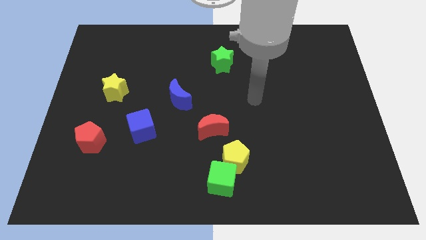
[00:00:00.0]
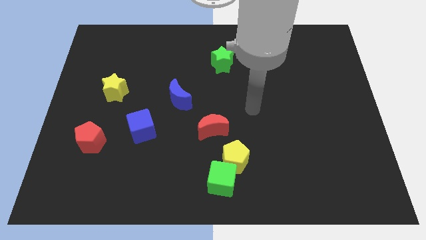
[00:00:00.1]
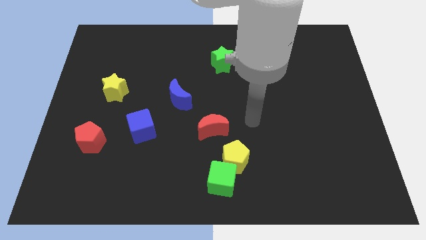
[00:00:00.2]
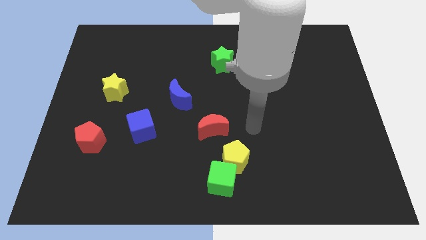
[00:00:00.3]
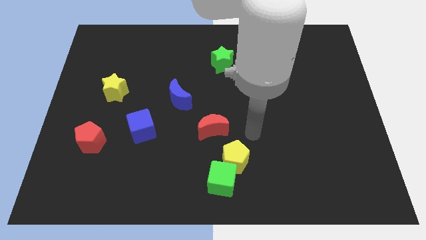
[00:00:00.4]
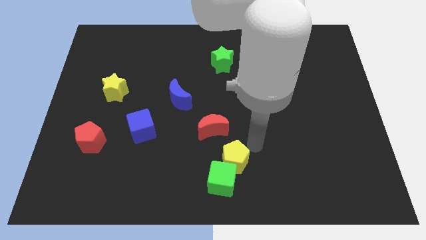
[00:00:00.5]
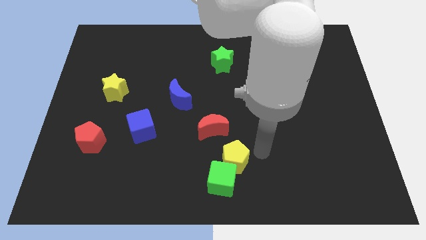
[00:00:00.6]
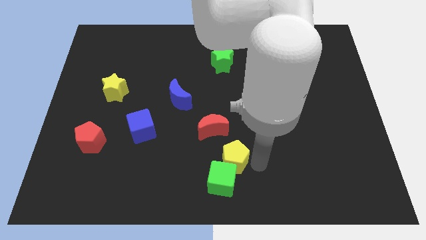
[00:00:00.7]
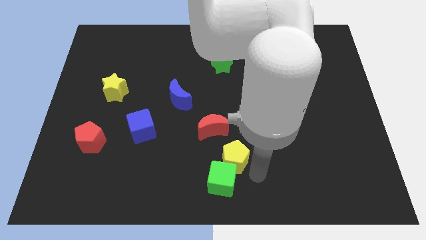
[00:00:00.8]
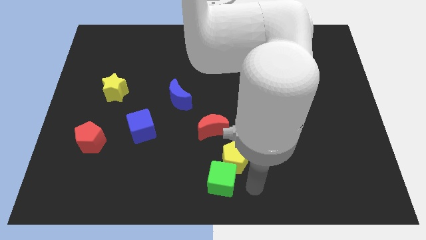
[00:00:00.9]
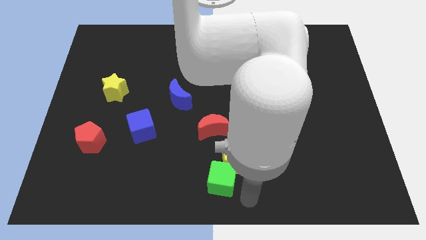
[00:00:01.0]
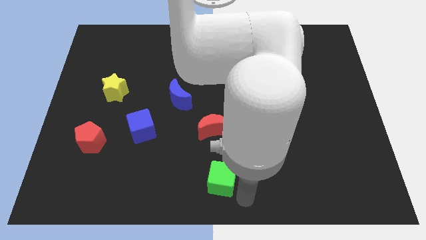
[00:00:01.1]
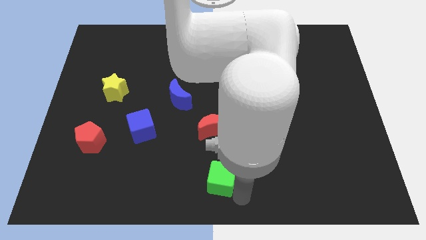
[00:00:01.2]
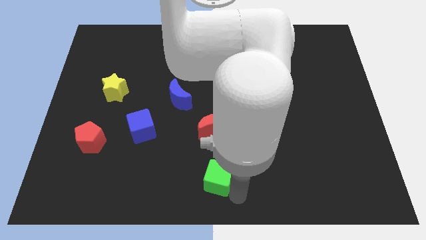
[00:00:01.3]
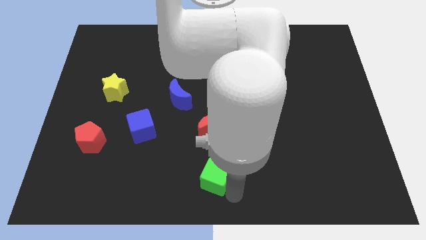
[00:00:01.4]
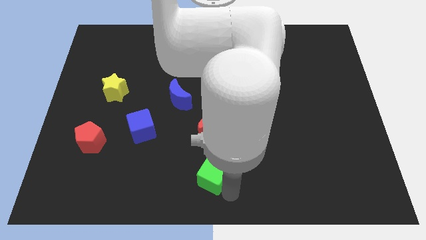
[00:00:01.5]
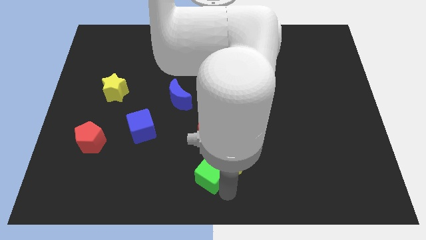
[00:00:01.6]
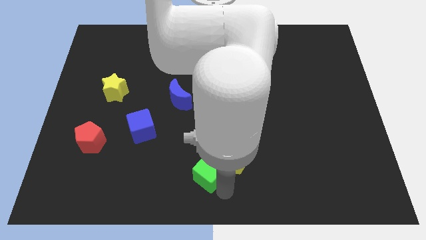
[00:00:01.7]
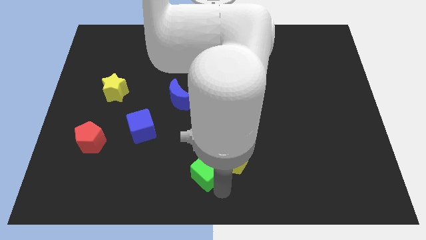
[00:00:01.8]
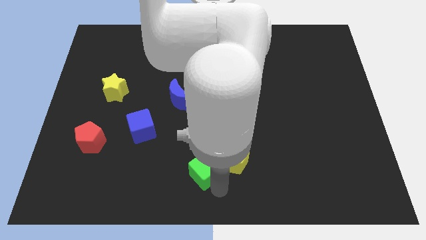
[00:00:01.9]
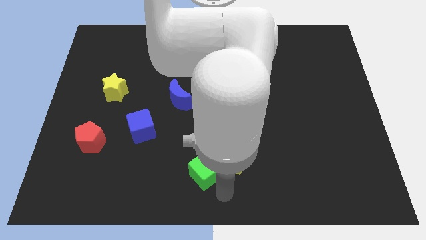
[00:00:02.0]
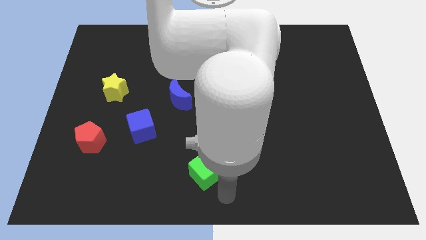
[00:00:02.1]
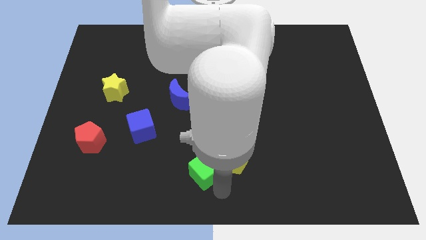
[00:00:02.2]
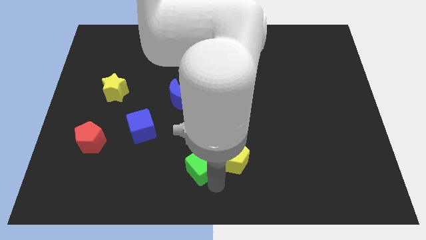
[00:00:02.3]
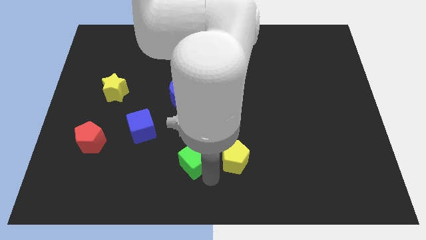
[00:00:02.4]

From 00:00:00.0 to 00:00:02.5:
push the green cube upwards and left slightly

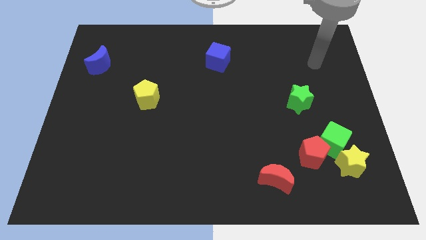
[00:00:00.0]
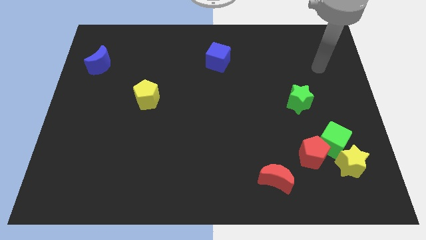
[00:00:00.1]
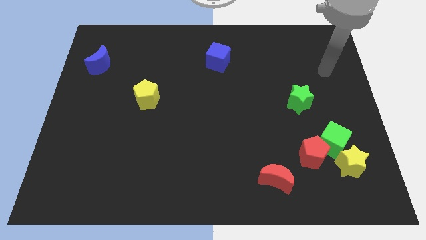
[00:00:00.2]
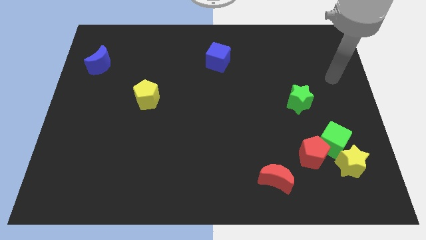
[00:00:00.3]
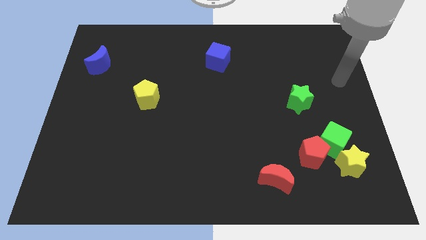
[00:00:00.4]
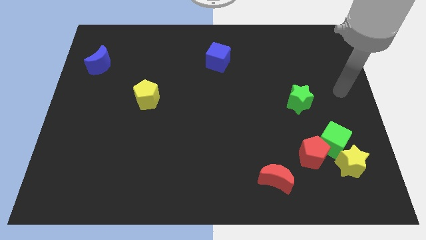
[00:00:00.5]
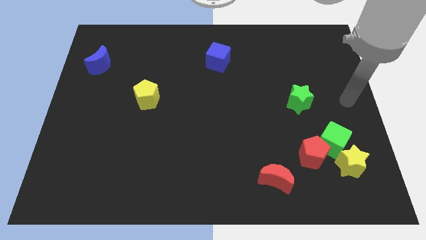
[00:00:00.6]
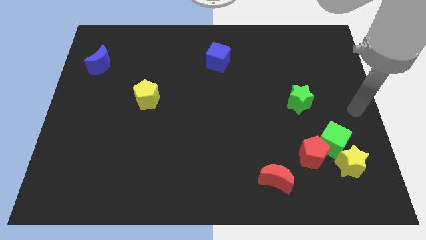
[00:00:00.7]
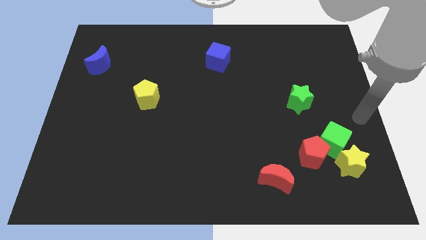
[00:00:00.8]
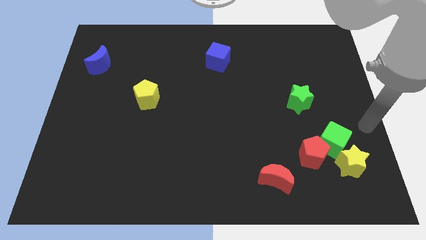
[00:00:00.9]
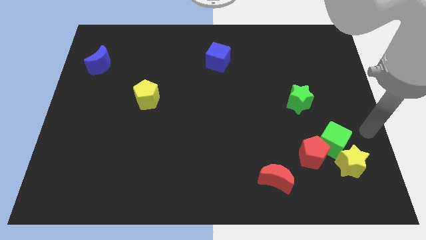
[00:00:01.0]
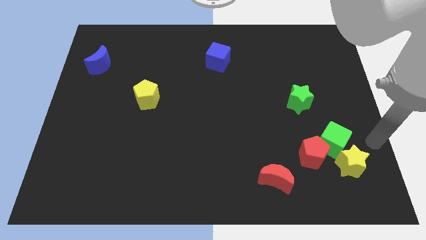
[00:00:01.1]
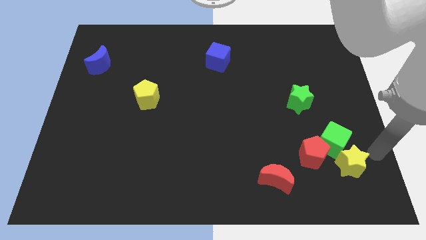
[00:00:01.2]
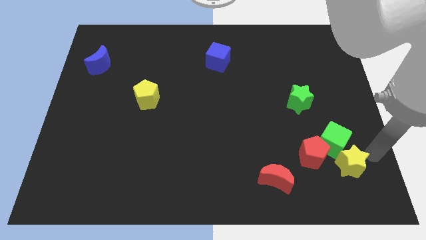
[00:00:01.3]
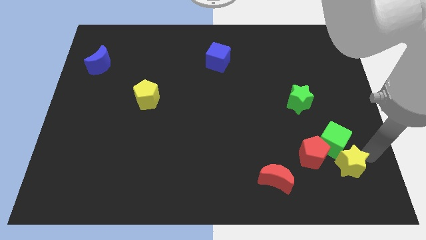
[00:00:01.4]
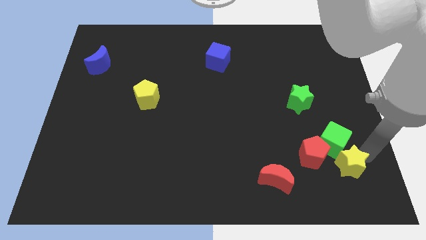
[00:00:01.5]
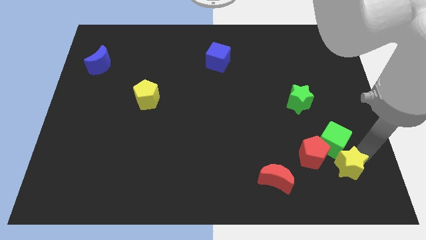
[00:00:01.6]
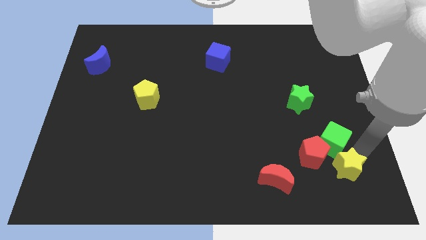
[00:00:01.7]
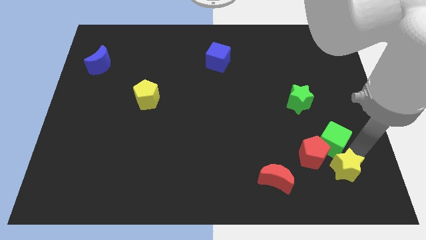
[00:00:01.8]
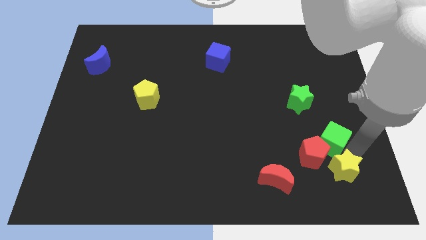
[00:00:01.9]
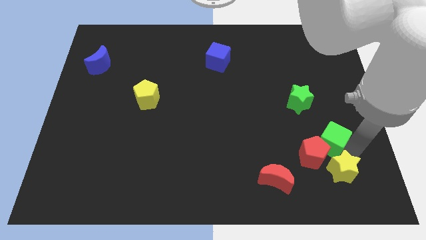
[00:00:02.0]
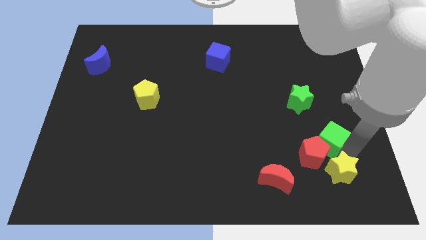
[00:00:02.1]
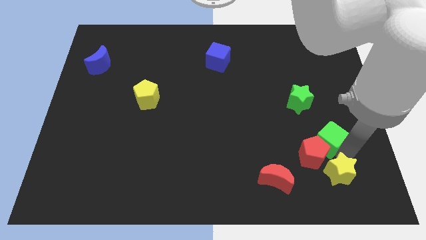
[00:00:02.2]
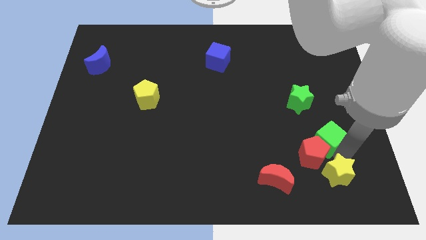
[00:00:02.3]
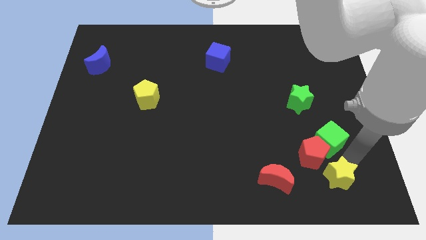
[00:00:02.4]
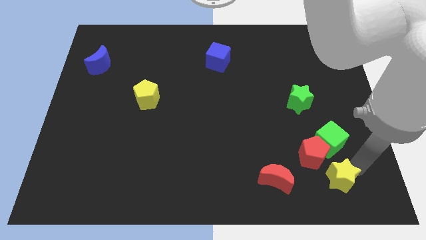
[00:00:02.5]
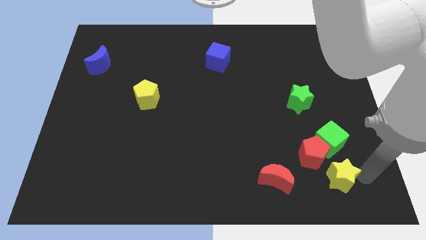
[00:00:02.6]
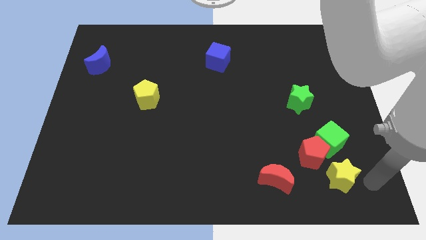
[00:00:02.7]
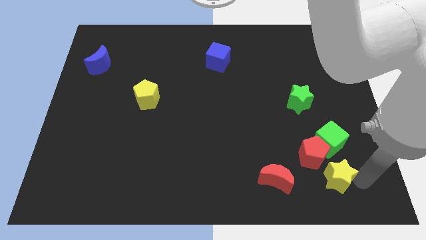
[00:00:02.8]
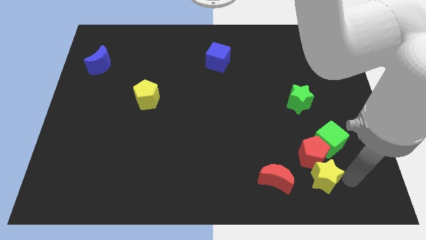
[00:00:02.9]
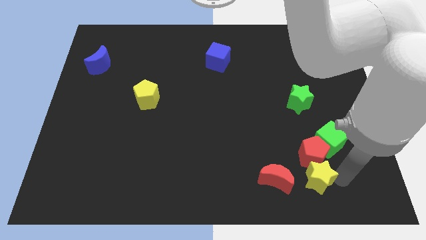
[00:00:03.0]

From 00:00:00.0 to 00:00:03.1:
push the yellow star left somewhat

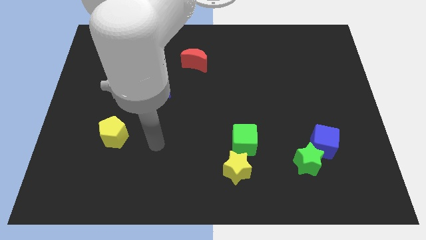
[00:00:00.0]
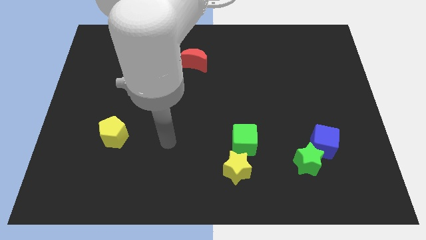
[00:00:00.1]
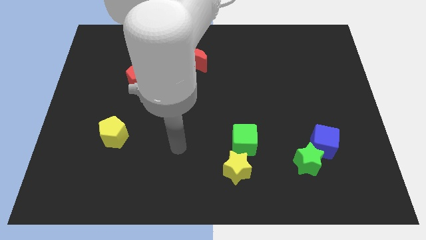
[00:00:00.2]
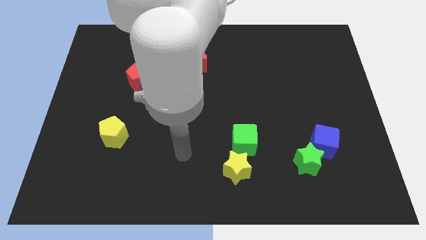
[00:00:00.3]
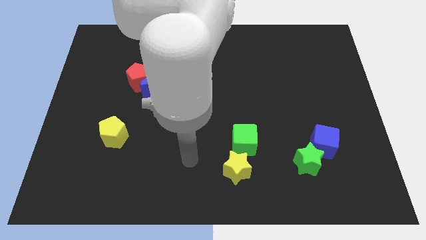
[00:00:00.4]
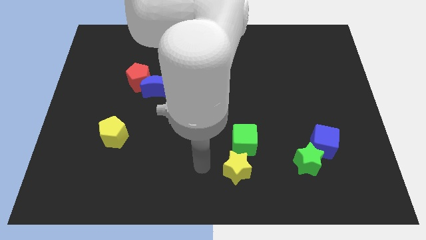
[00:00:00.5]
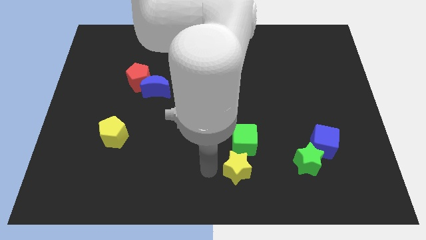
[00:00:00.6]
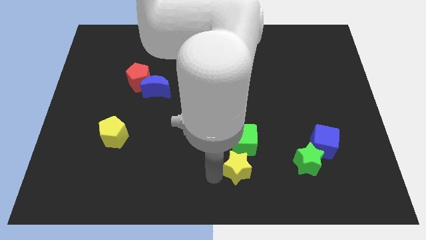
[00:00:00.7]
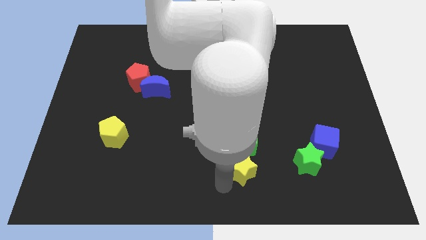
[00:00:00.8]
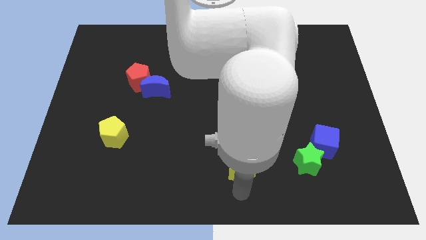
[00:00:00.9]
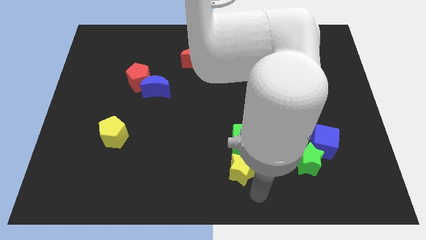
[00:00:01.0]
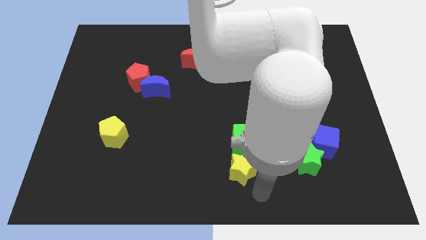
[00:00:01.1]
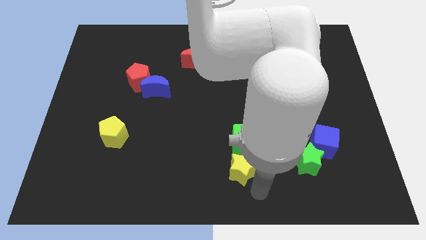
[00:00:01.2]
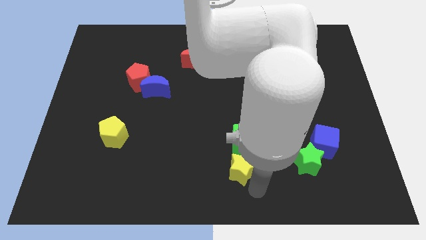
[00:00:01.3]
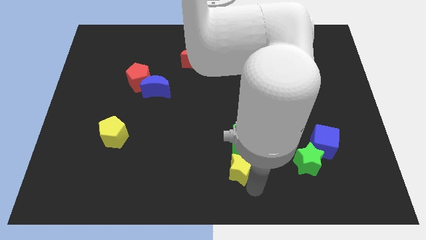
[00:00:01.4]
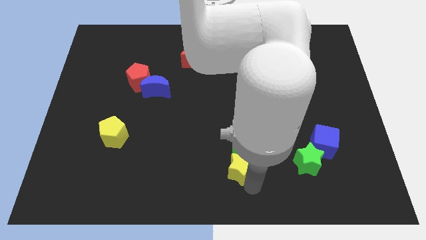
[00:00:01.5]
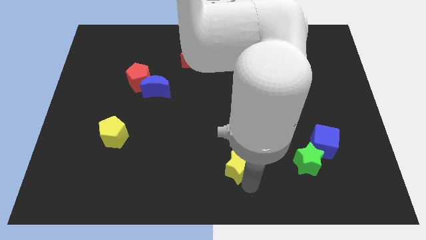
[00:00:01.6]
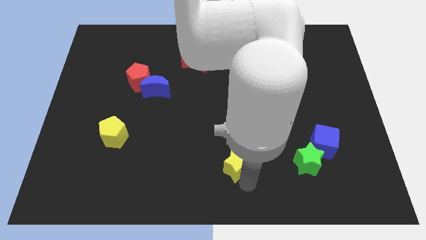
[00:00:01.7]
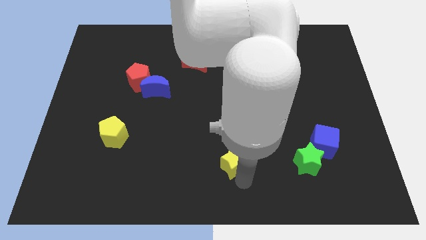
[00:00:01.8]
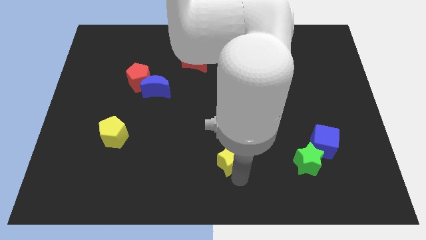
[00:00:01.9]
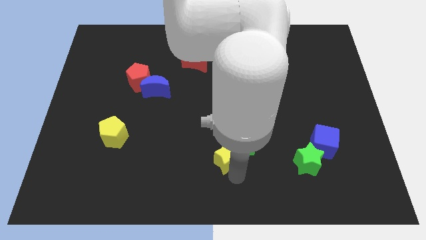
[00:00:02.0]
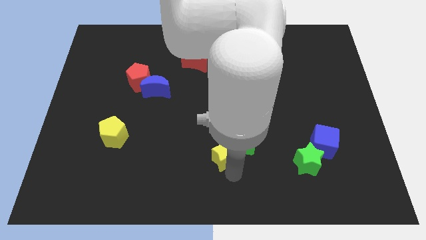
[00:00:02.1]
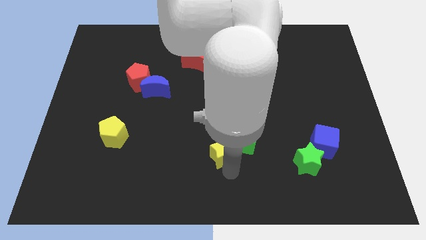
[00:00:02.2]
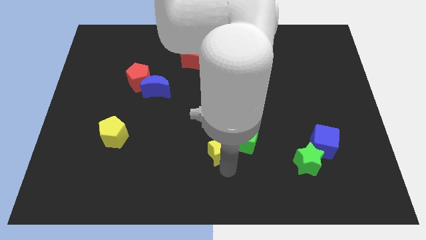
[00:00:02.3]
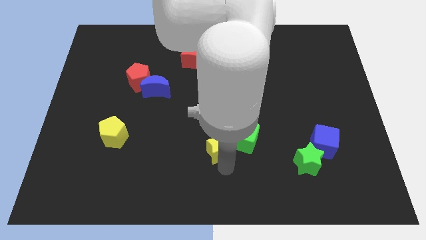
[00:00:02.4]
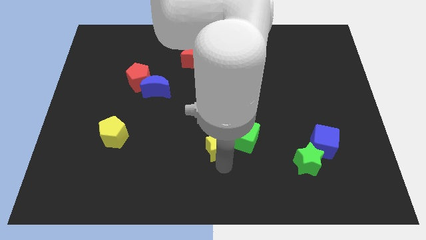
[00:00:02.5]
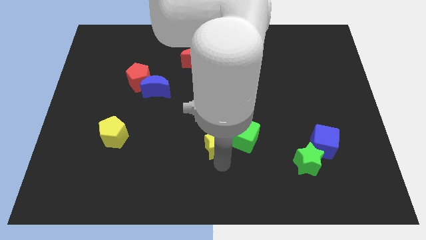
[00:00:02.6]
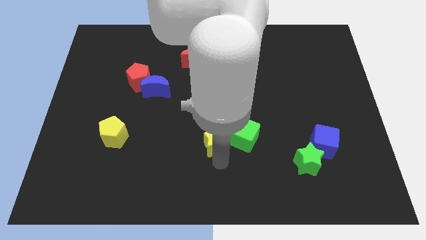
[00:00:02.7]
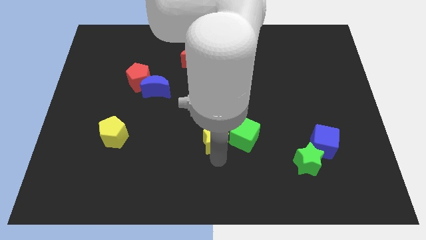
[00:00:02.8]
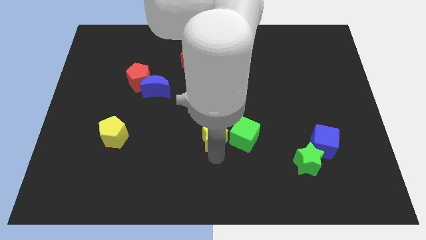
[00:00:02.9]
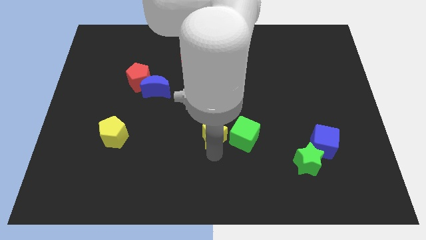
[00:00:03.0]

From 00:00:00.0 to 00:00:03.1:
push the yellow star up a little bit
